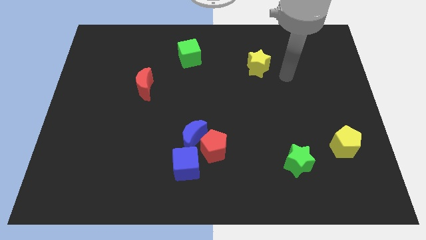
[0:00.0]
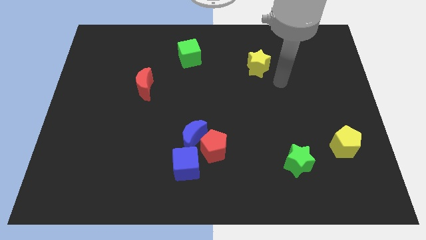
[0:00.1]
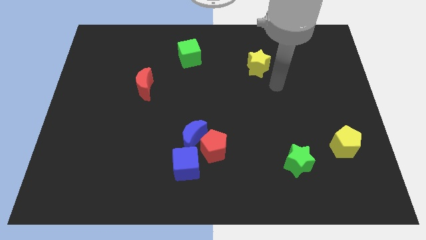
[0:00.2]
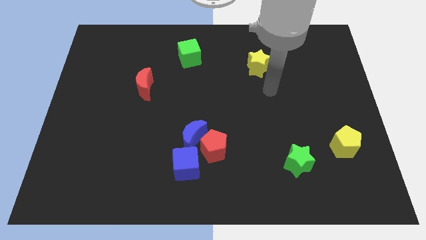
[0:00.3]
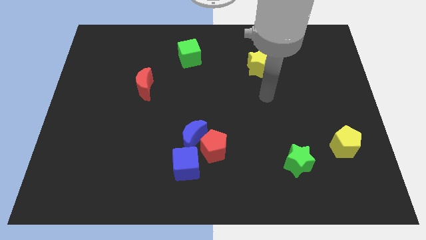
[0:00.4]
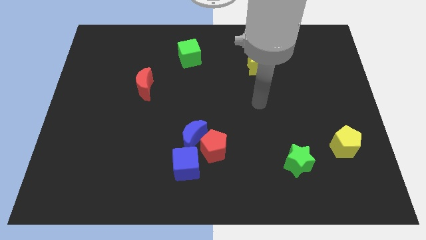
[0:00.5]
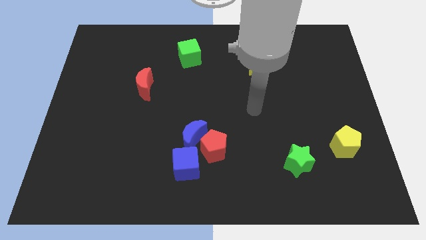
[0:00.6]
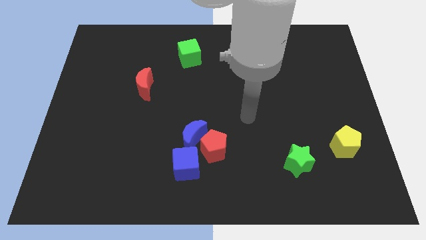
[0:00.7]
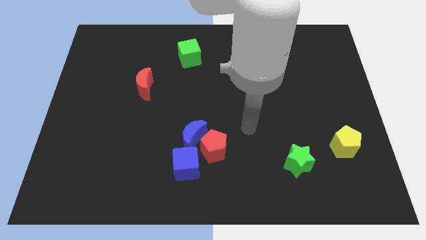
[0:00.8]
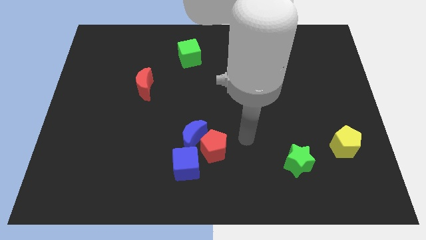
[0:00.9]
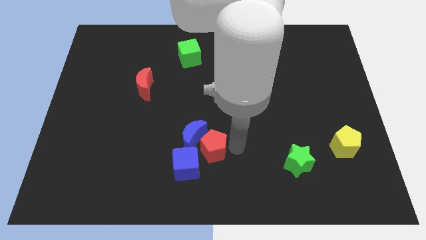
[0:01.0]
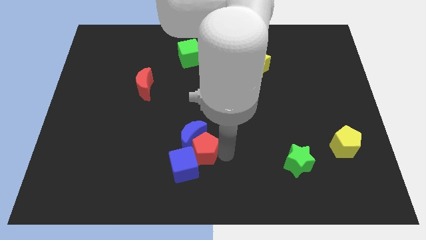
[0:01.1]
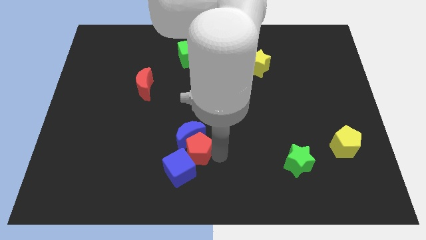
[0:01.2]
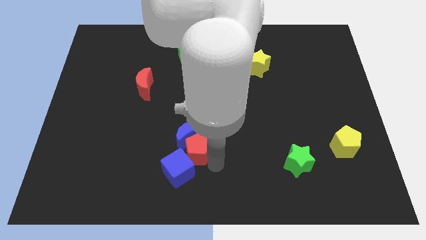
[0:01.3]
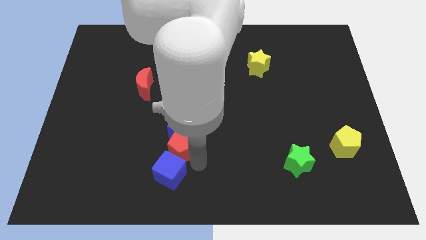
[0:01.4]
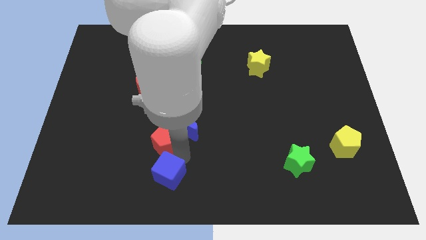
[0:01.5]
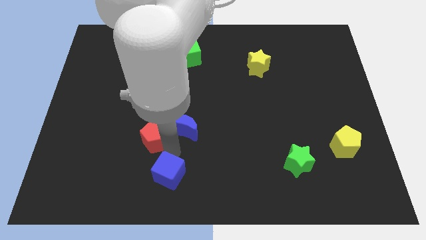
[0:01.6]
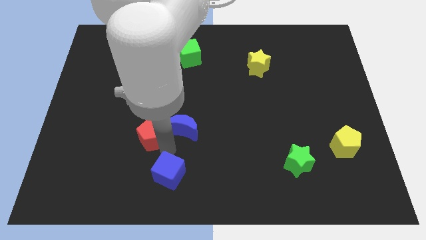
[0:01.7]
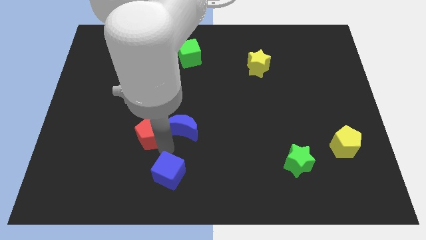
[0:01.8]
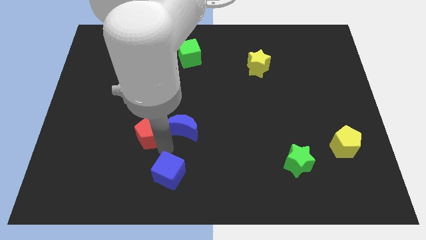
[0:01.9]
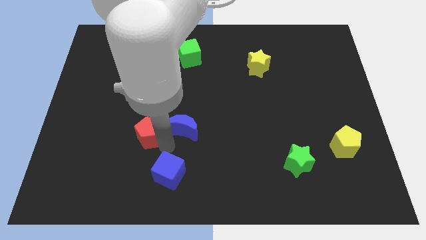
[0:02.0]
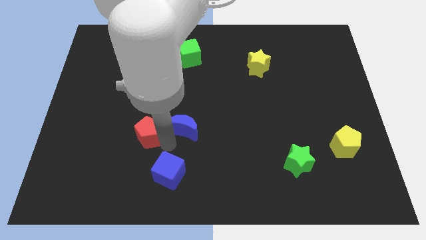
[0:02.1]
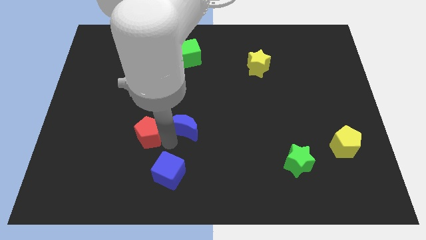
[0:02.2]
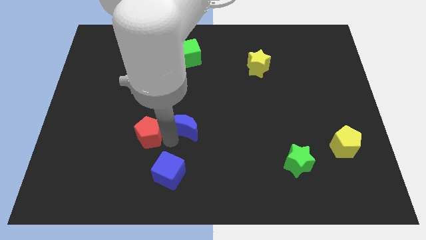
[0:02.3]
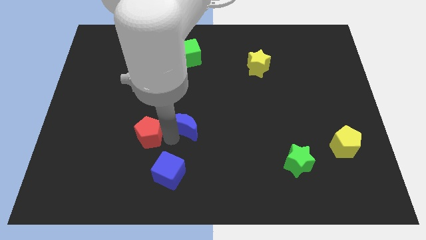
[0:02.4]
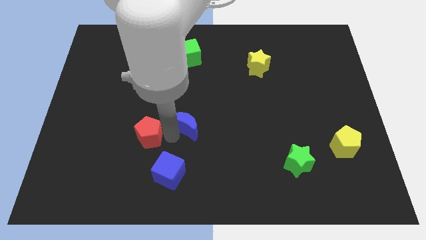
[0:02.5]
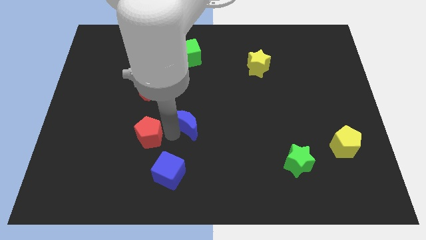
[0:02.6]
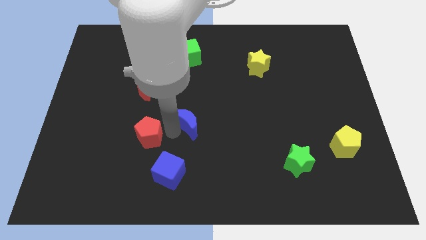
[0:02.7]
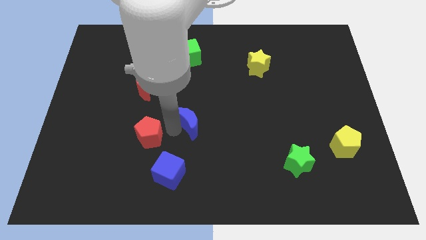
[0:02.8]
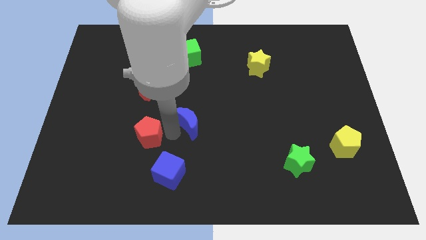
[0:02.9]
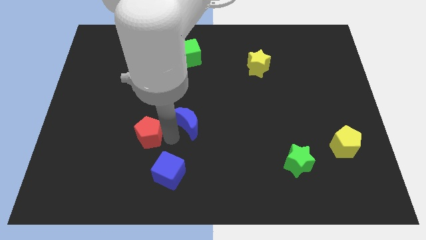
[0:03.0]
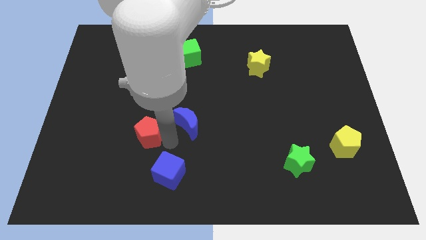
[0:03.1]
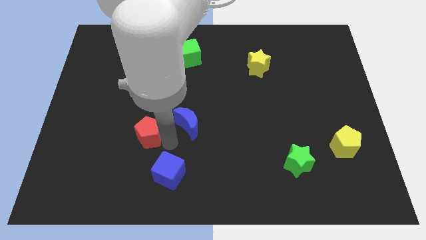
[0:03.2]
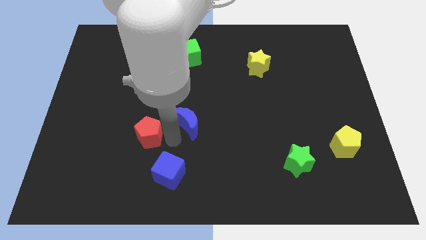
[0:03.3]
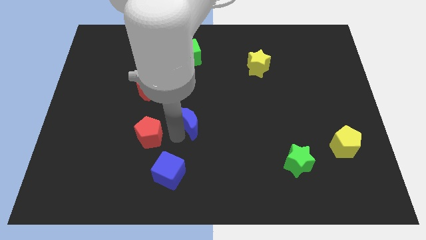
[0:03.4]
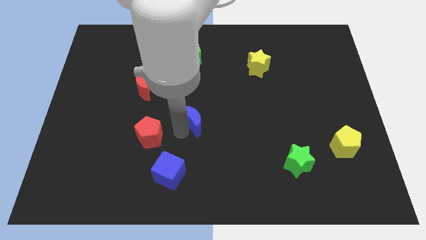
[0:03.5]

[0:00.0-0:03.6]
pull the blue moon apart from the red pentagon and blue cube

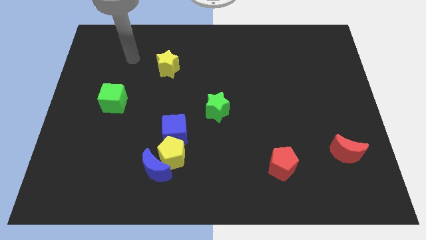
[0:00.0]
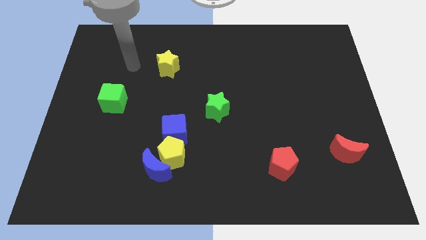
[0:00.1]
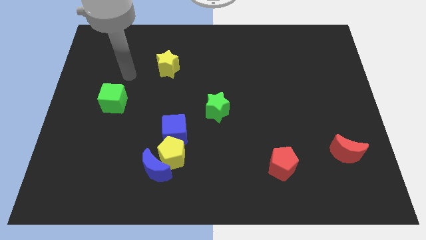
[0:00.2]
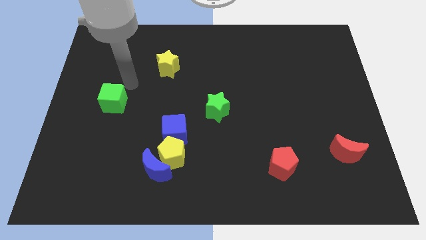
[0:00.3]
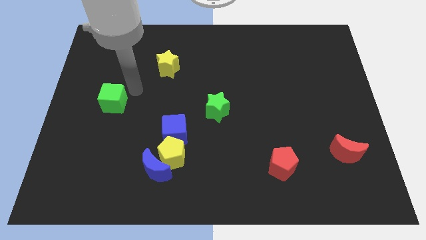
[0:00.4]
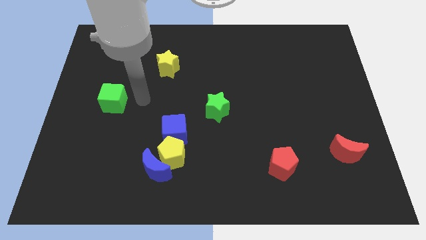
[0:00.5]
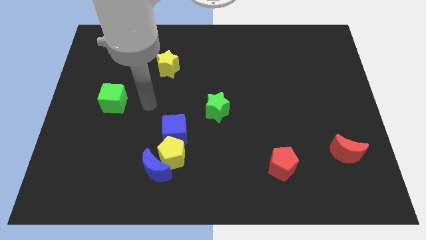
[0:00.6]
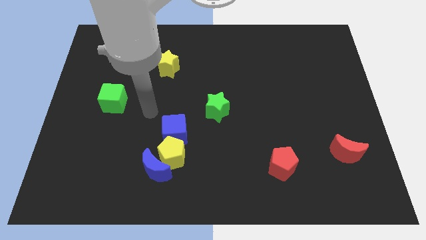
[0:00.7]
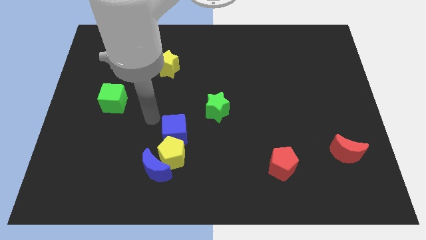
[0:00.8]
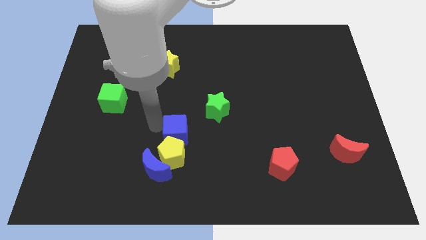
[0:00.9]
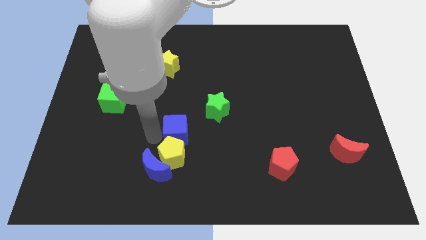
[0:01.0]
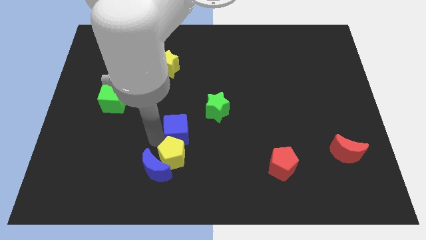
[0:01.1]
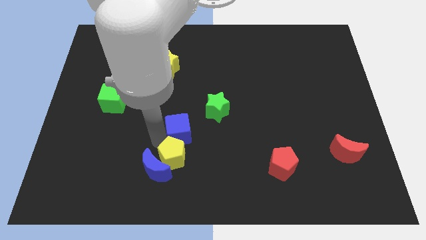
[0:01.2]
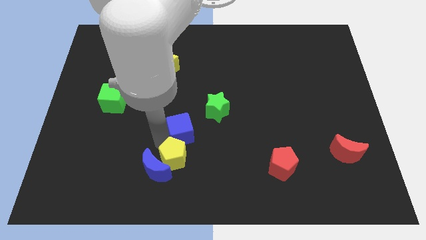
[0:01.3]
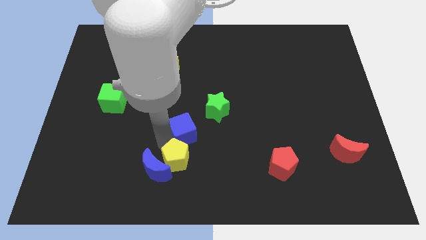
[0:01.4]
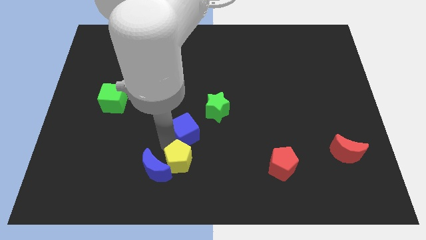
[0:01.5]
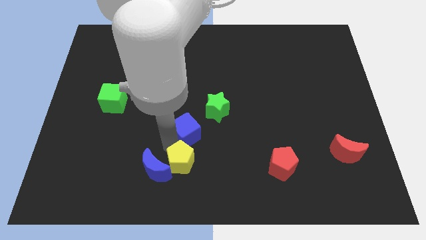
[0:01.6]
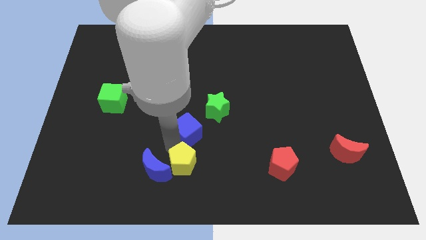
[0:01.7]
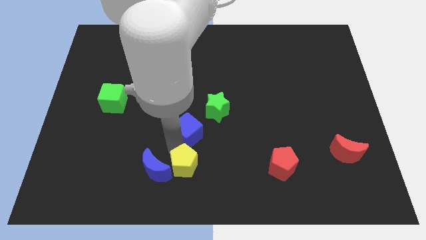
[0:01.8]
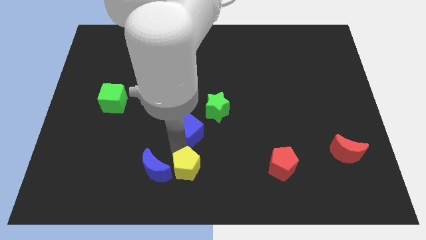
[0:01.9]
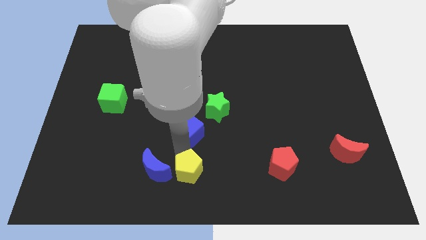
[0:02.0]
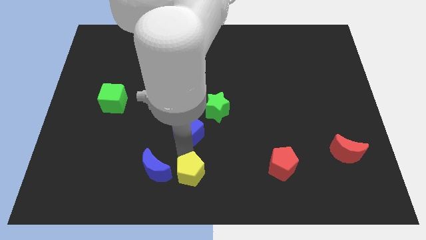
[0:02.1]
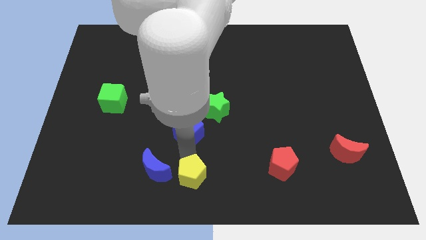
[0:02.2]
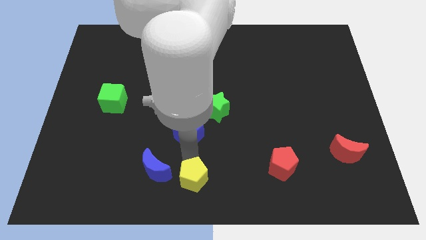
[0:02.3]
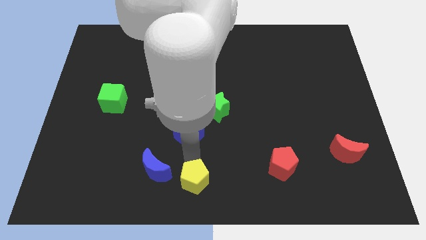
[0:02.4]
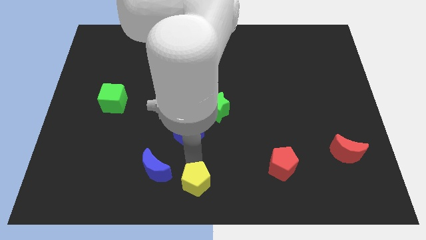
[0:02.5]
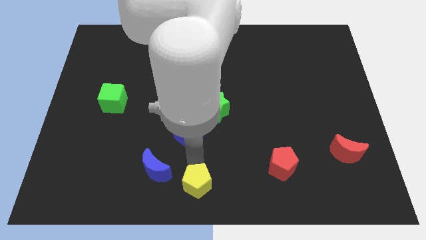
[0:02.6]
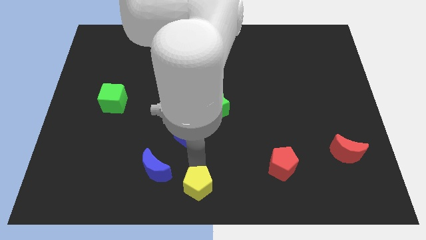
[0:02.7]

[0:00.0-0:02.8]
separate the yellow pentagon from the blue moon and blue cube

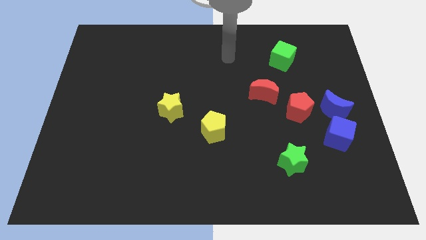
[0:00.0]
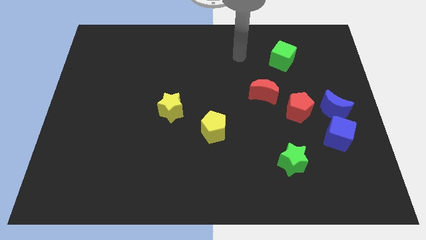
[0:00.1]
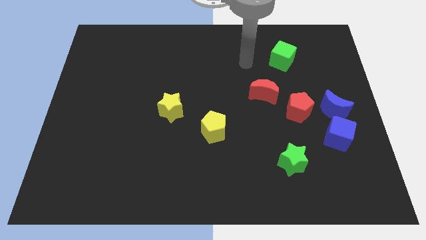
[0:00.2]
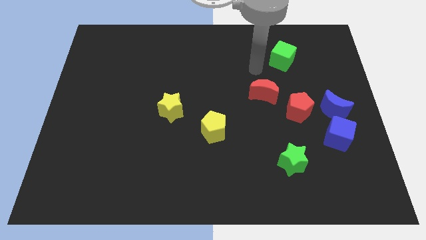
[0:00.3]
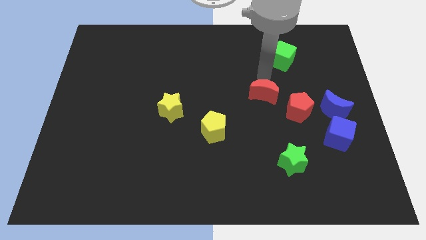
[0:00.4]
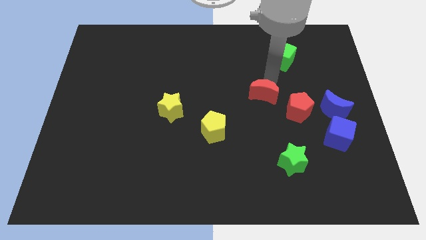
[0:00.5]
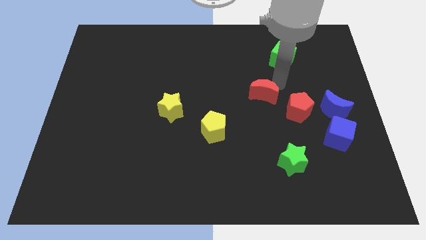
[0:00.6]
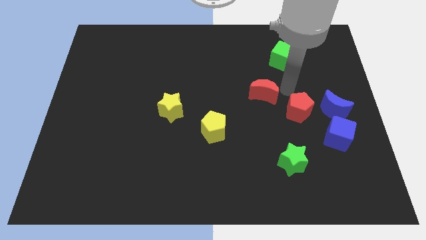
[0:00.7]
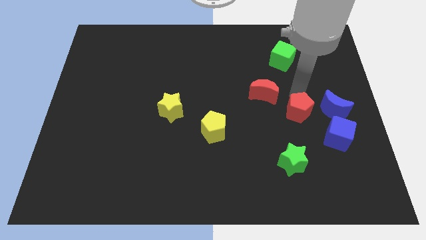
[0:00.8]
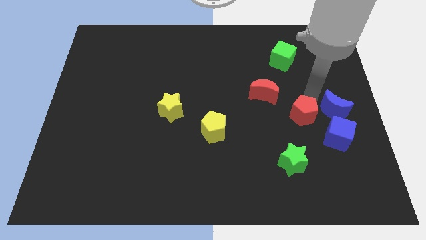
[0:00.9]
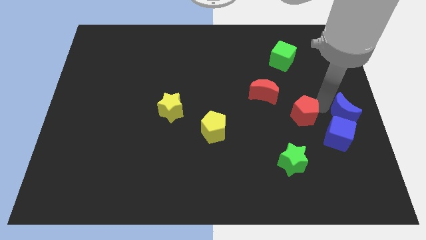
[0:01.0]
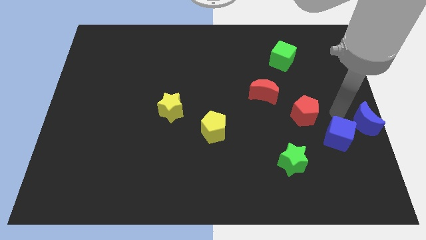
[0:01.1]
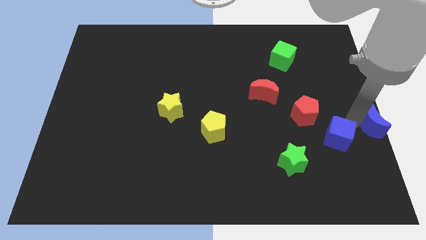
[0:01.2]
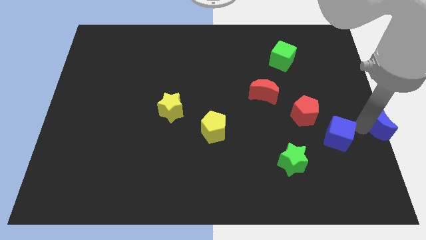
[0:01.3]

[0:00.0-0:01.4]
move the blue cube away from the blue moon

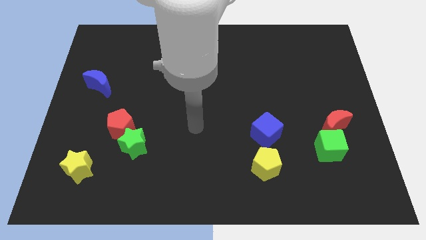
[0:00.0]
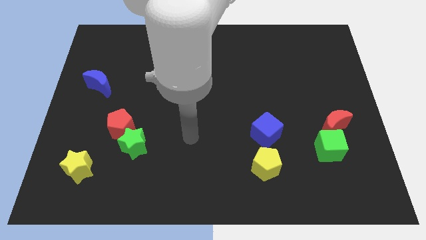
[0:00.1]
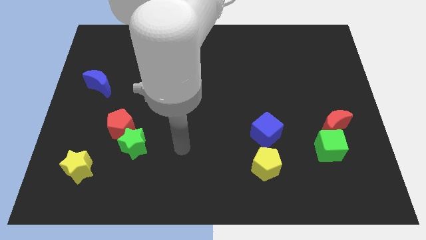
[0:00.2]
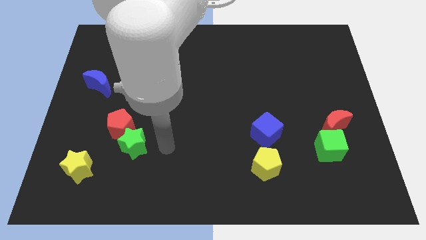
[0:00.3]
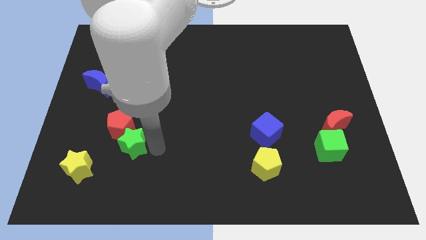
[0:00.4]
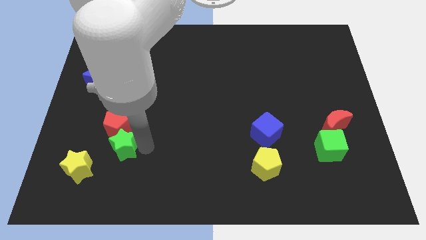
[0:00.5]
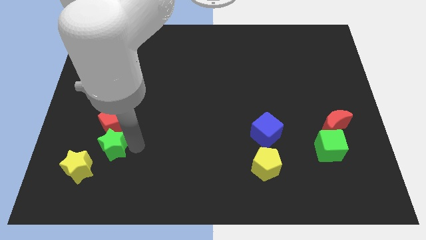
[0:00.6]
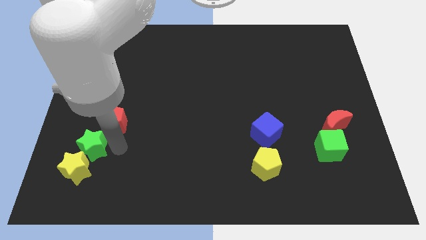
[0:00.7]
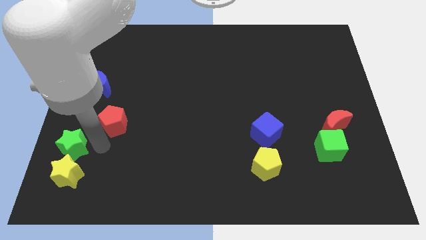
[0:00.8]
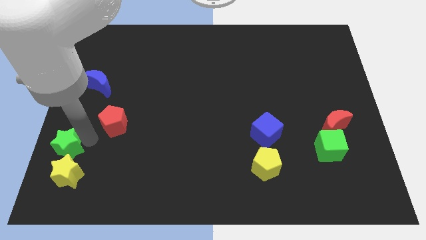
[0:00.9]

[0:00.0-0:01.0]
move the red pentagon away from the green star

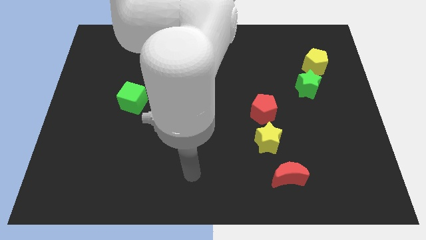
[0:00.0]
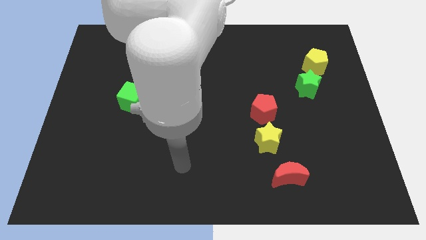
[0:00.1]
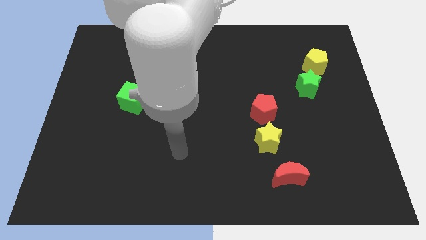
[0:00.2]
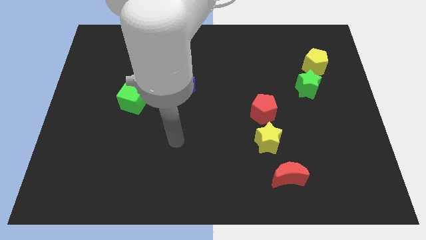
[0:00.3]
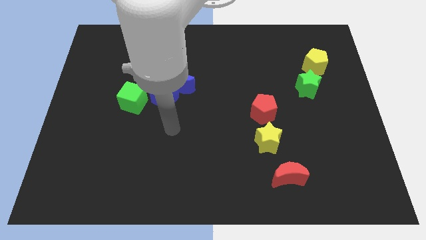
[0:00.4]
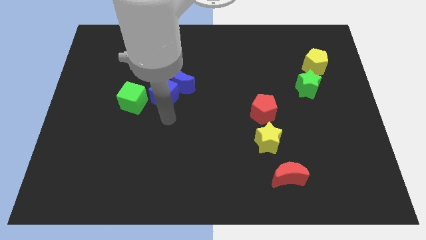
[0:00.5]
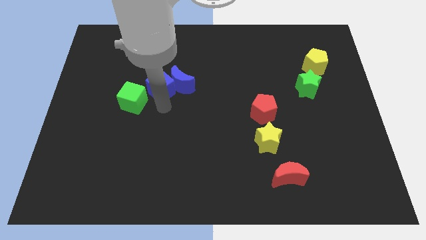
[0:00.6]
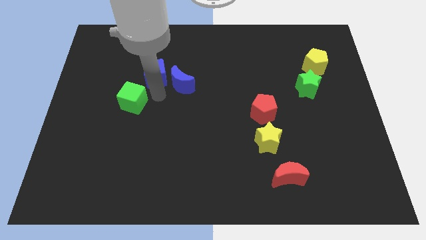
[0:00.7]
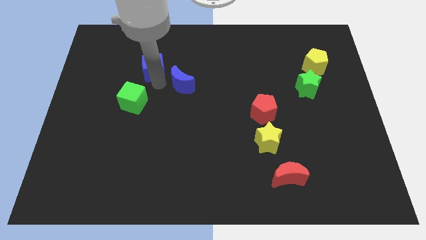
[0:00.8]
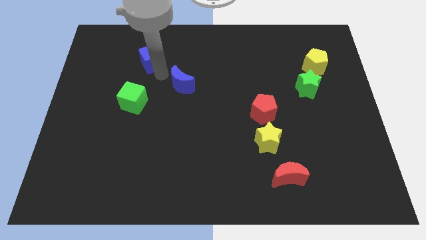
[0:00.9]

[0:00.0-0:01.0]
separate the blue moon from the blue cube
